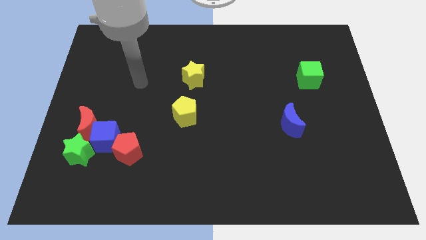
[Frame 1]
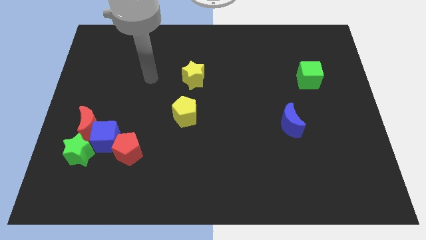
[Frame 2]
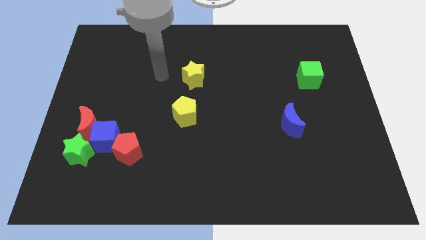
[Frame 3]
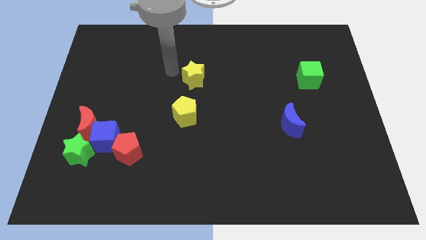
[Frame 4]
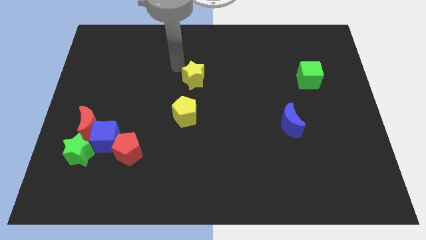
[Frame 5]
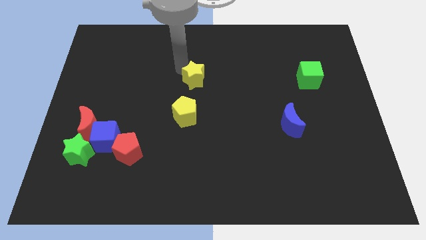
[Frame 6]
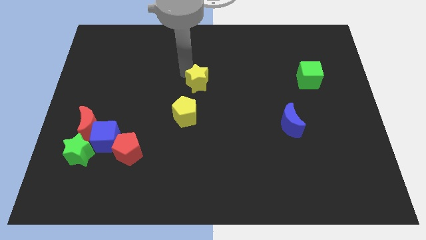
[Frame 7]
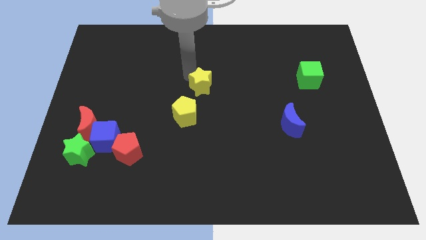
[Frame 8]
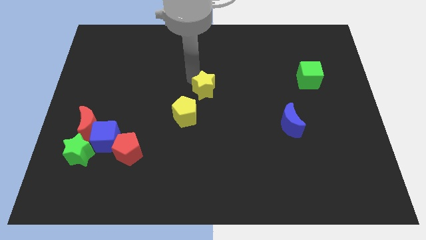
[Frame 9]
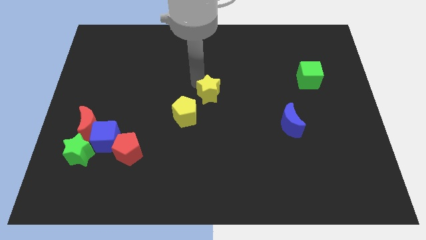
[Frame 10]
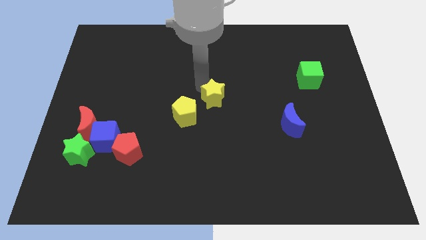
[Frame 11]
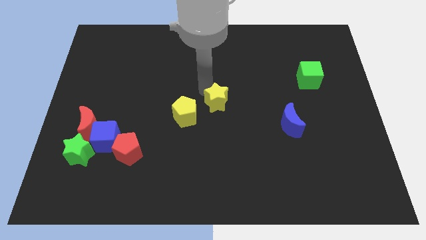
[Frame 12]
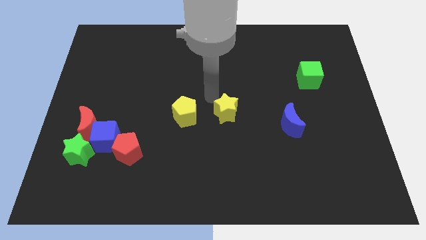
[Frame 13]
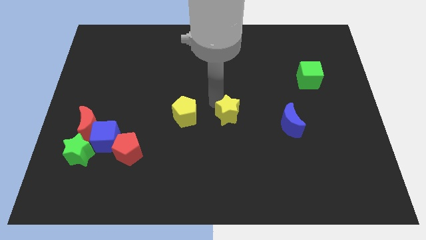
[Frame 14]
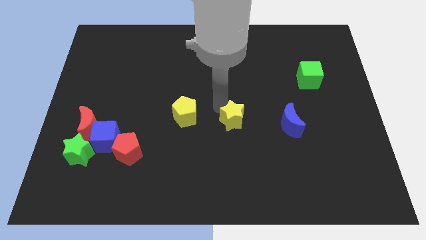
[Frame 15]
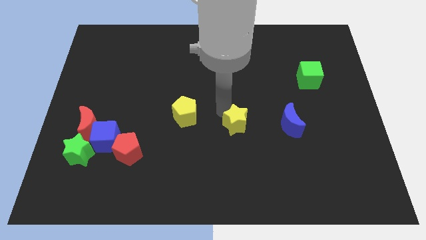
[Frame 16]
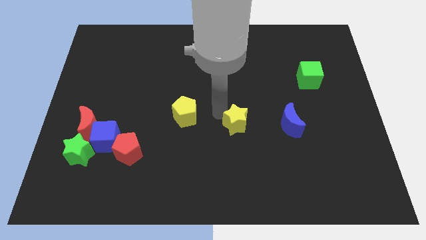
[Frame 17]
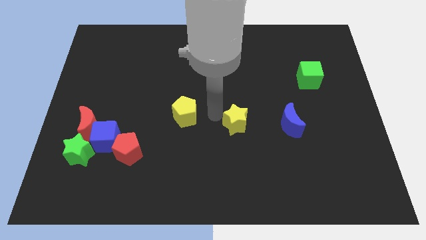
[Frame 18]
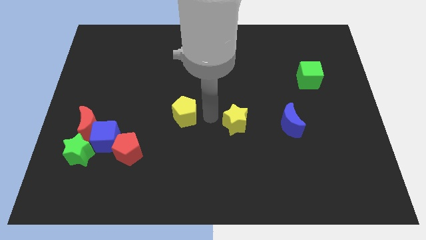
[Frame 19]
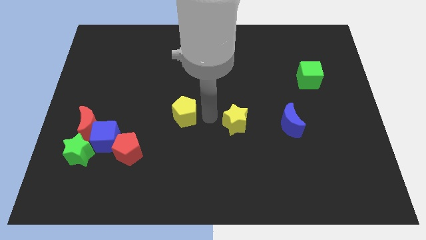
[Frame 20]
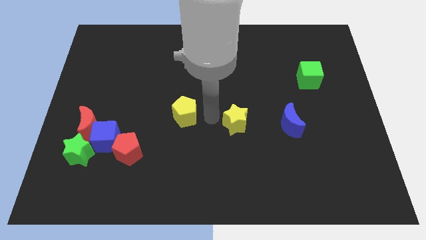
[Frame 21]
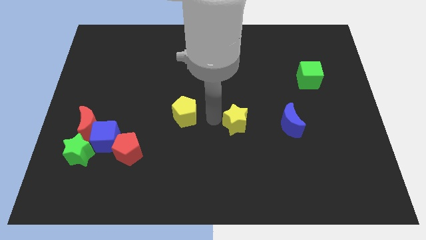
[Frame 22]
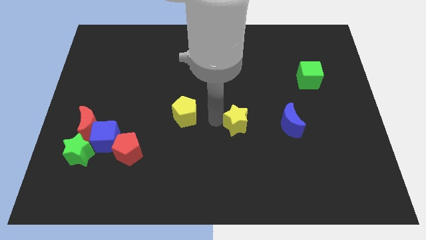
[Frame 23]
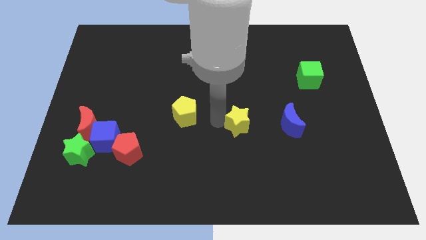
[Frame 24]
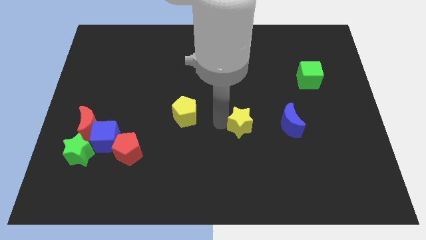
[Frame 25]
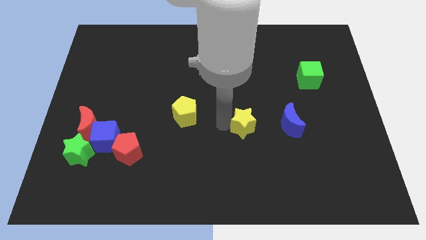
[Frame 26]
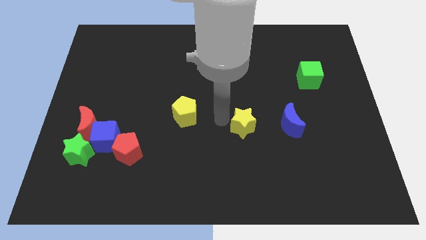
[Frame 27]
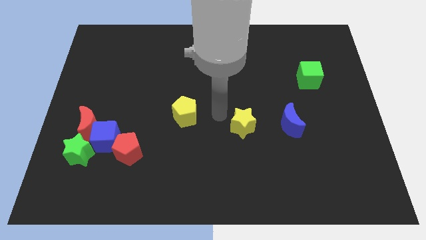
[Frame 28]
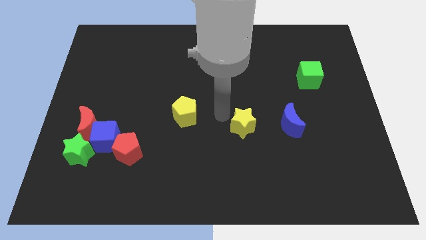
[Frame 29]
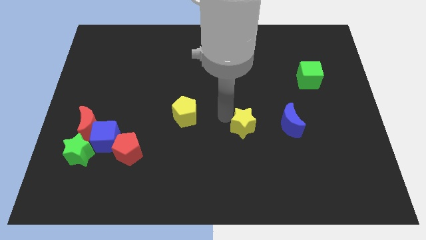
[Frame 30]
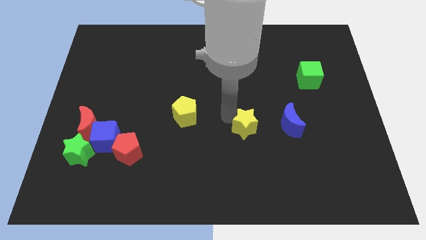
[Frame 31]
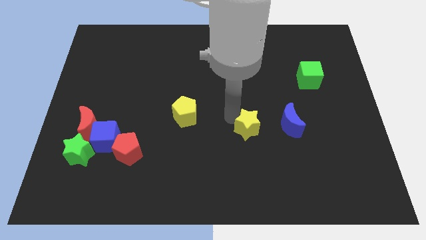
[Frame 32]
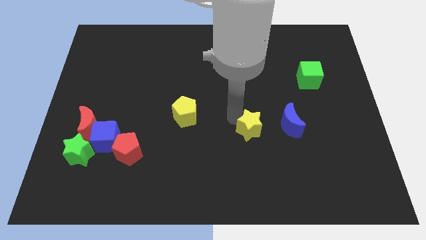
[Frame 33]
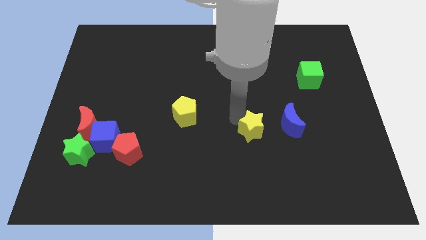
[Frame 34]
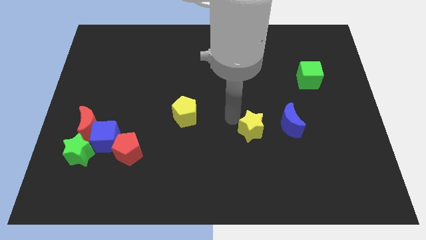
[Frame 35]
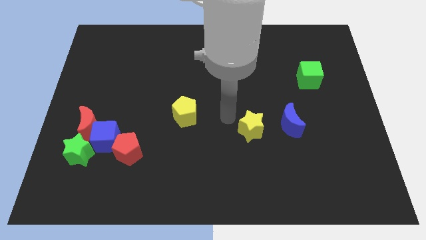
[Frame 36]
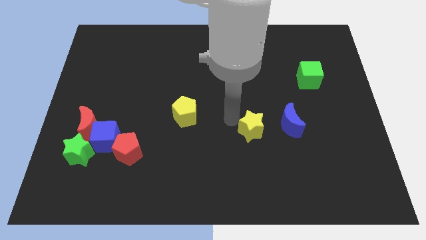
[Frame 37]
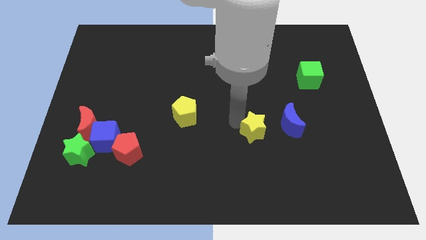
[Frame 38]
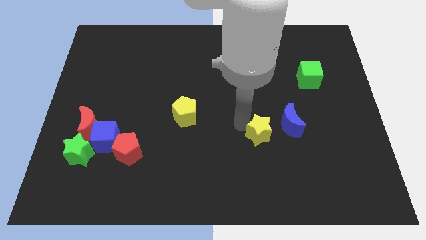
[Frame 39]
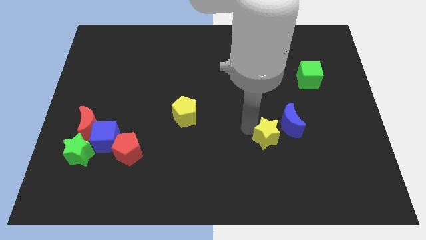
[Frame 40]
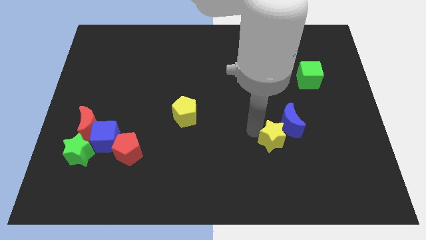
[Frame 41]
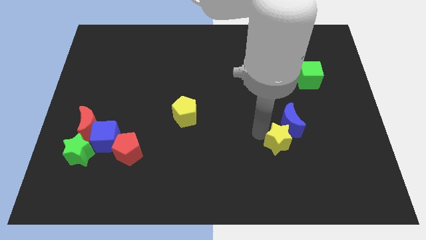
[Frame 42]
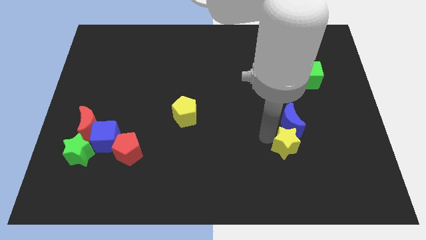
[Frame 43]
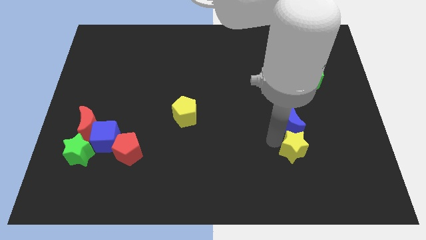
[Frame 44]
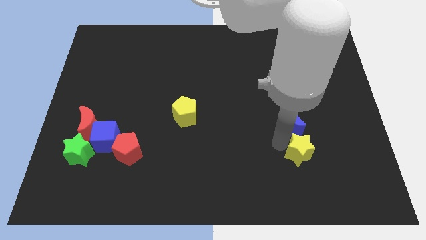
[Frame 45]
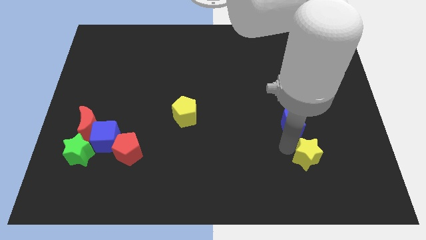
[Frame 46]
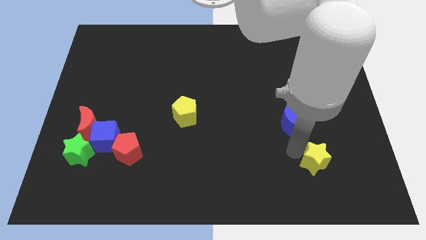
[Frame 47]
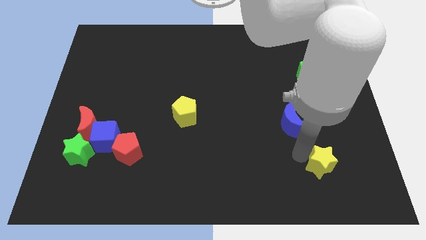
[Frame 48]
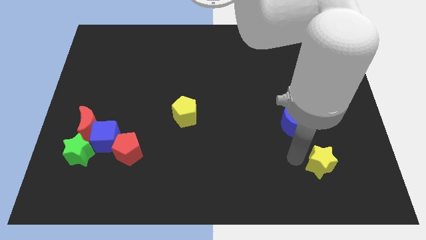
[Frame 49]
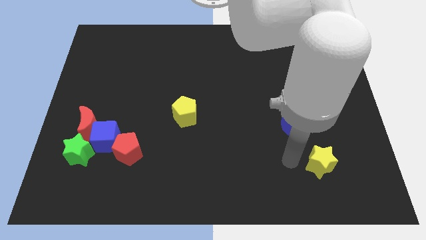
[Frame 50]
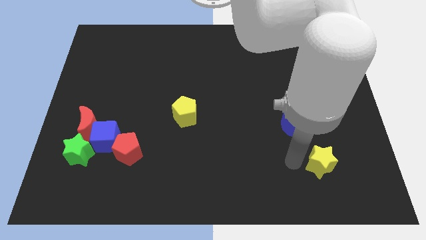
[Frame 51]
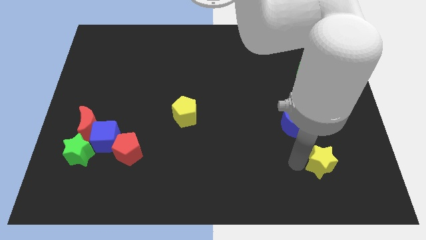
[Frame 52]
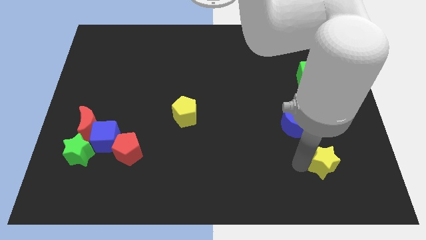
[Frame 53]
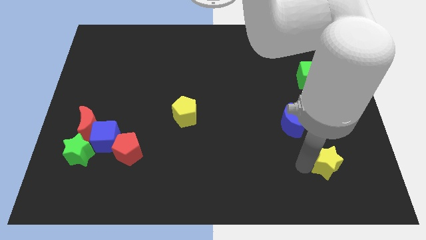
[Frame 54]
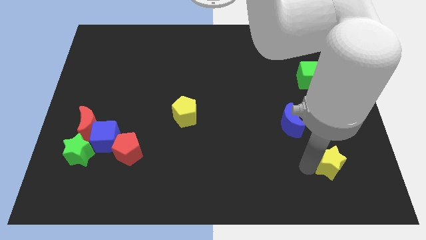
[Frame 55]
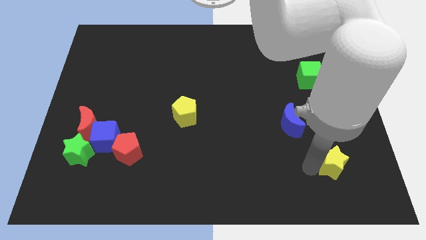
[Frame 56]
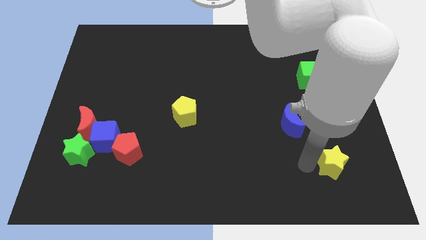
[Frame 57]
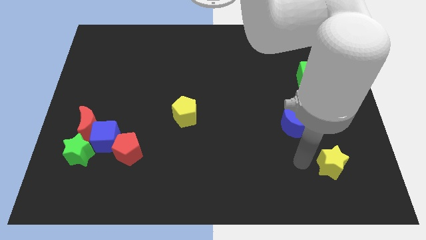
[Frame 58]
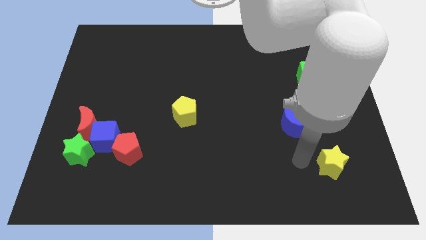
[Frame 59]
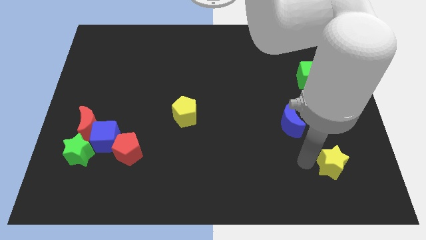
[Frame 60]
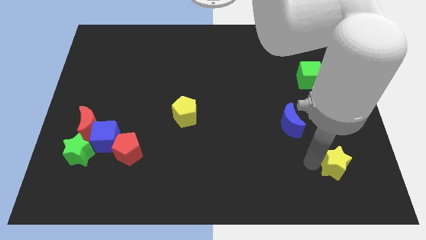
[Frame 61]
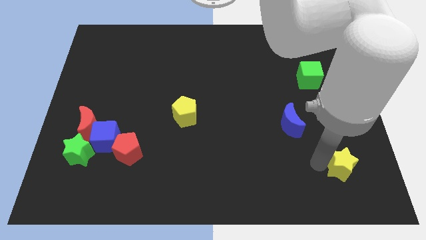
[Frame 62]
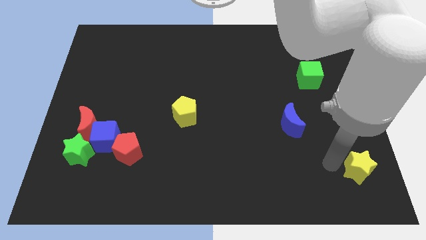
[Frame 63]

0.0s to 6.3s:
slide the yellow star to the bottom right of the board

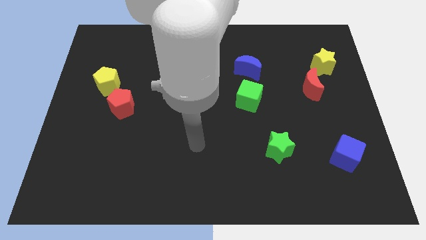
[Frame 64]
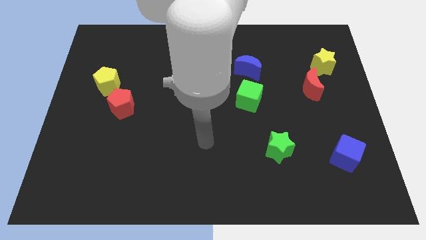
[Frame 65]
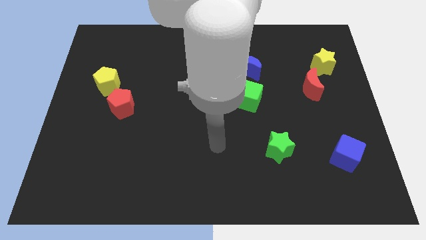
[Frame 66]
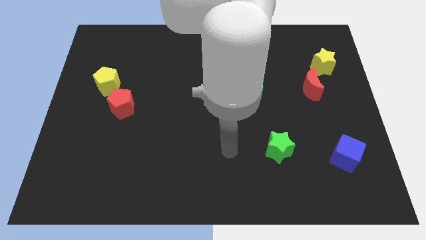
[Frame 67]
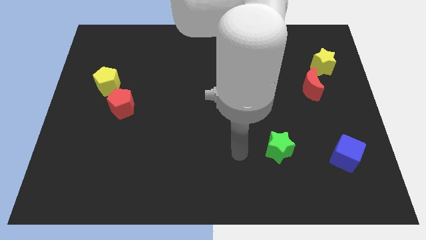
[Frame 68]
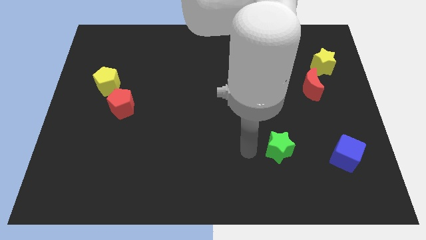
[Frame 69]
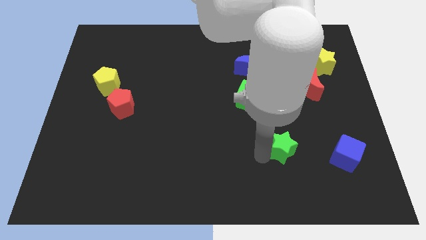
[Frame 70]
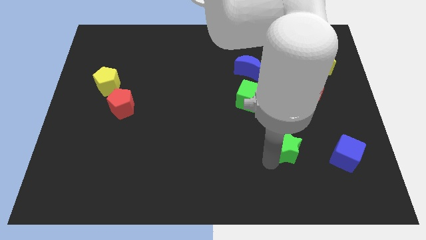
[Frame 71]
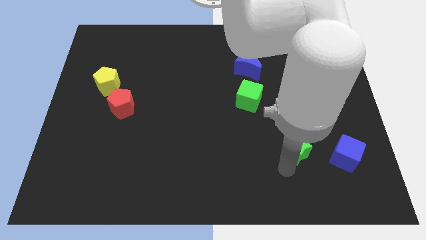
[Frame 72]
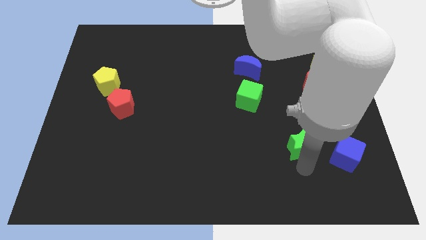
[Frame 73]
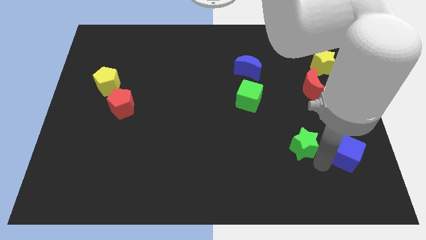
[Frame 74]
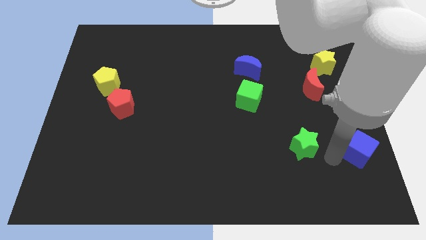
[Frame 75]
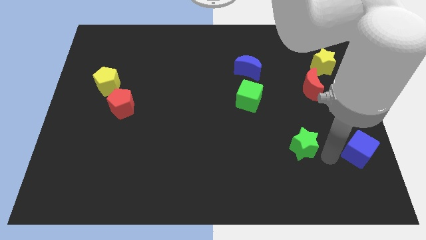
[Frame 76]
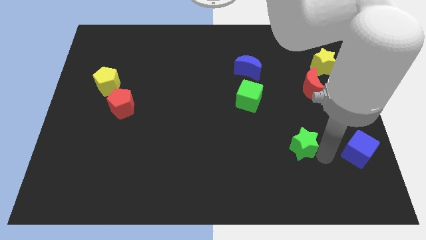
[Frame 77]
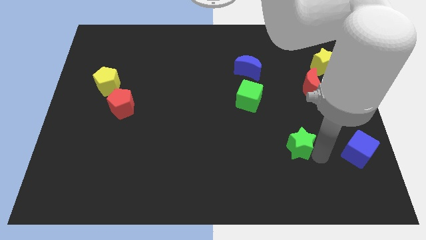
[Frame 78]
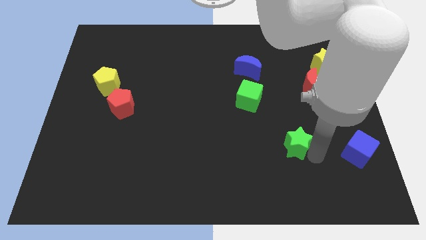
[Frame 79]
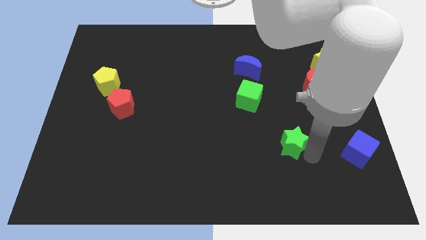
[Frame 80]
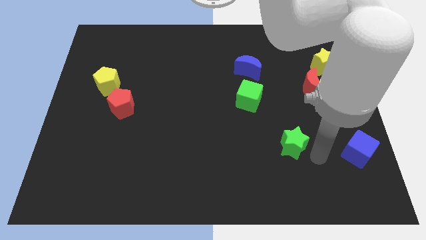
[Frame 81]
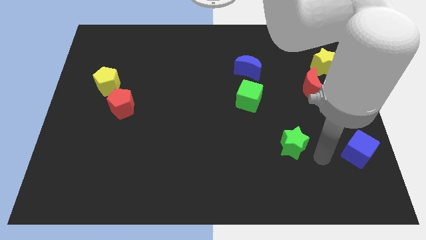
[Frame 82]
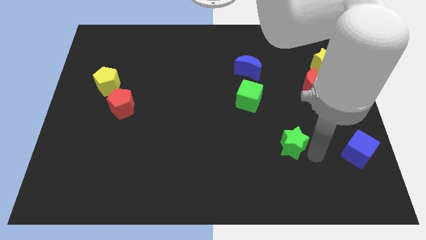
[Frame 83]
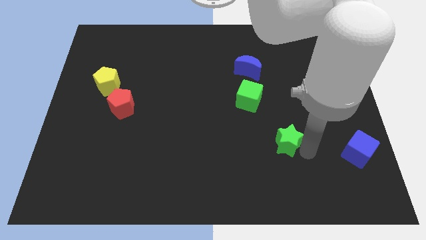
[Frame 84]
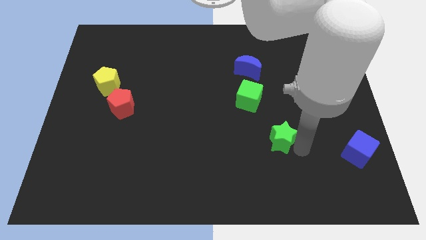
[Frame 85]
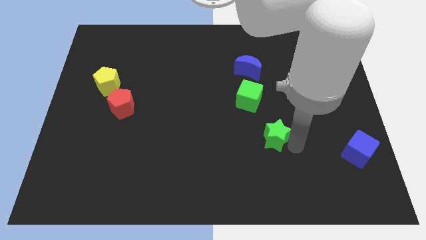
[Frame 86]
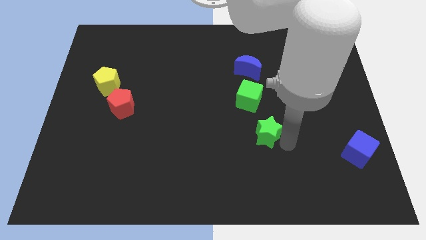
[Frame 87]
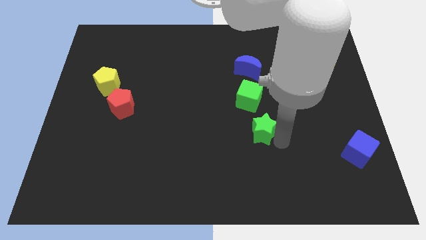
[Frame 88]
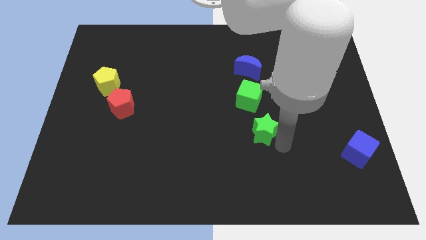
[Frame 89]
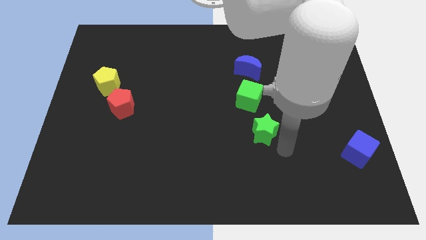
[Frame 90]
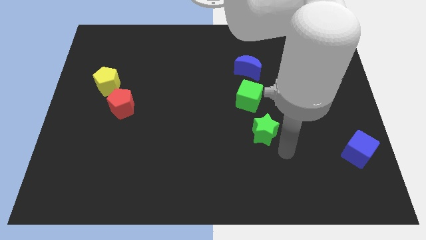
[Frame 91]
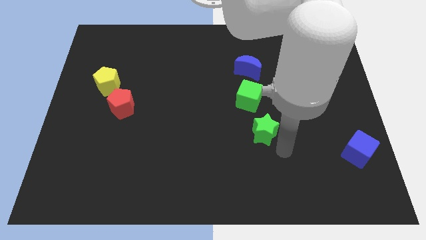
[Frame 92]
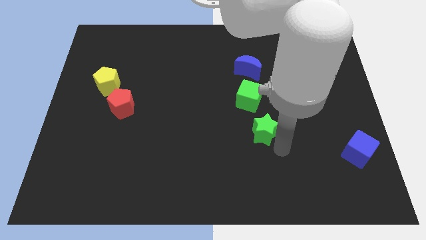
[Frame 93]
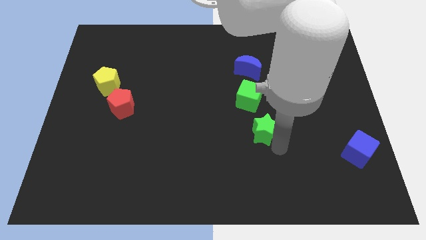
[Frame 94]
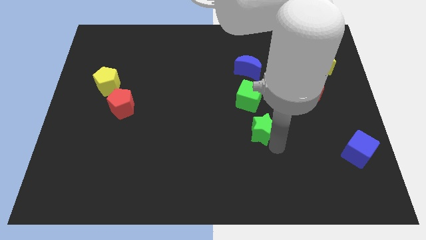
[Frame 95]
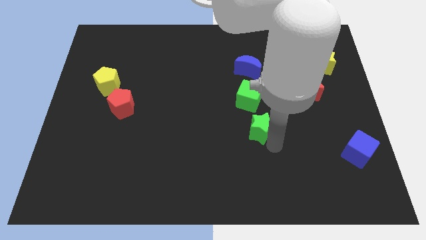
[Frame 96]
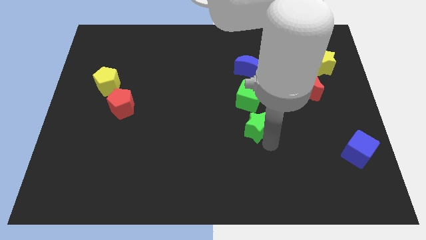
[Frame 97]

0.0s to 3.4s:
move the green star to the middle of the board
